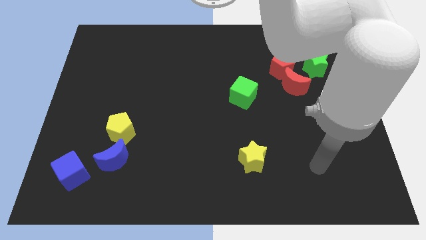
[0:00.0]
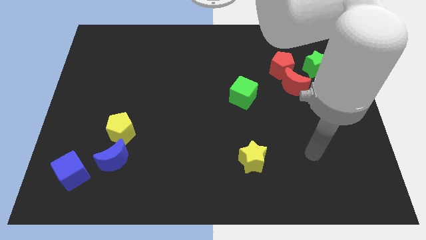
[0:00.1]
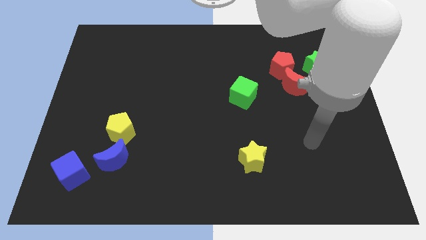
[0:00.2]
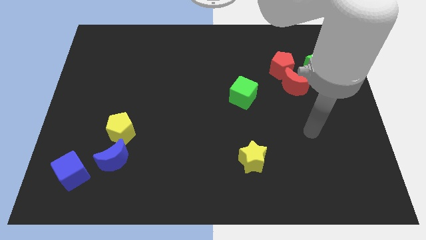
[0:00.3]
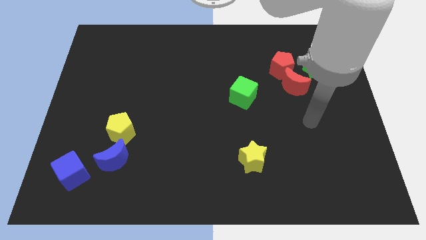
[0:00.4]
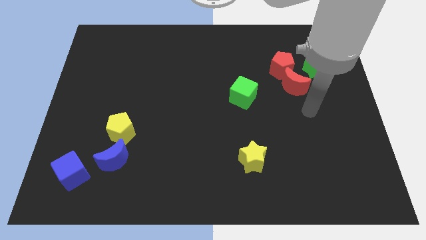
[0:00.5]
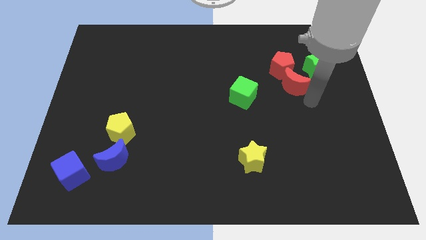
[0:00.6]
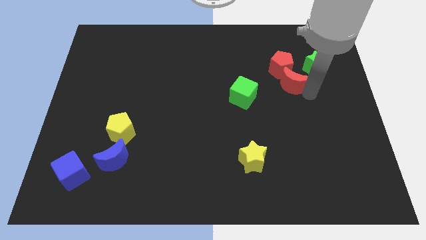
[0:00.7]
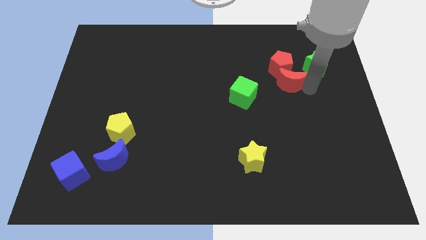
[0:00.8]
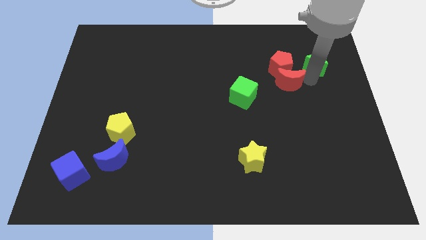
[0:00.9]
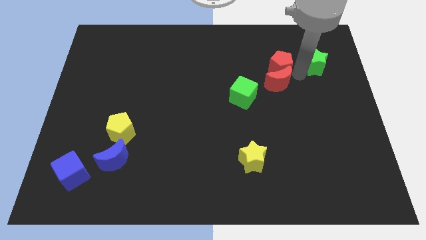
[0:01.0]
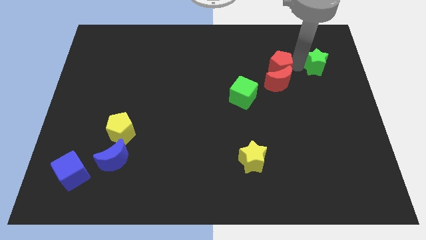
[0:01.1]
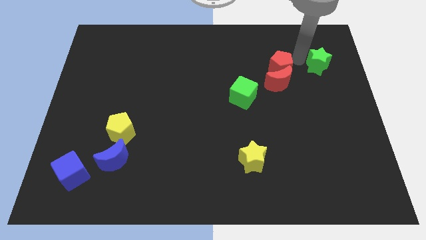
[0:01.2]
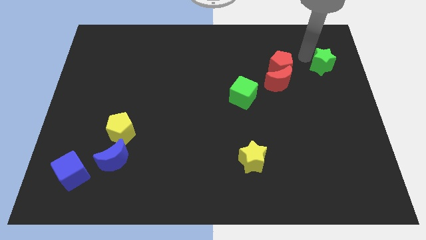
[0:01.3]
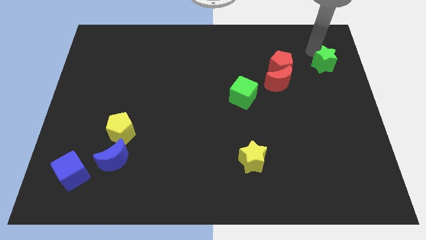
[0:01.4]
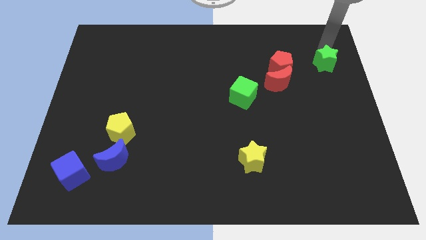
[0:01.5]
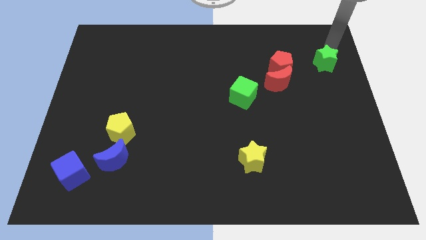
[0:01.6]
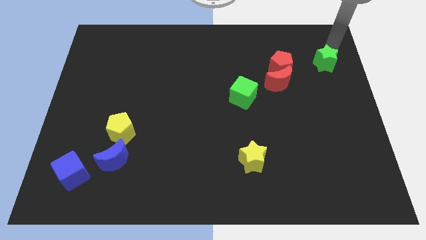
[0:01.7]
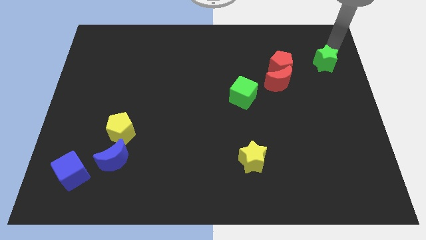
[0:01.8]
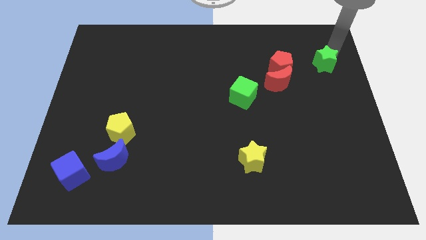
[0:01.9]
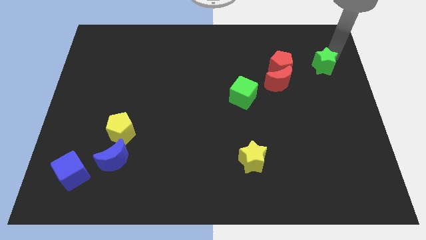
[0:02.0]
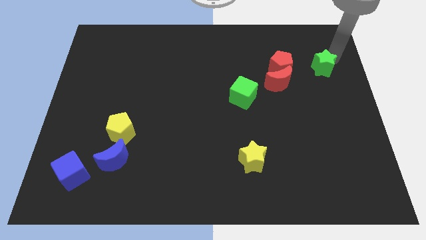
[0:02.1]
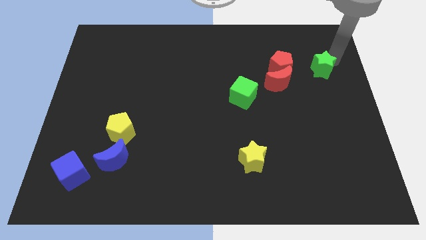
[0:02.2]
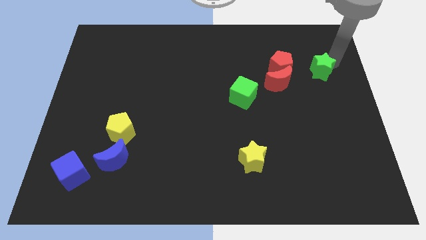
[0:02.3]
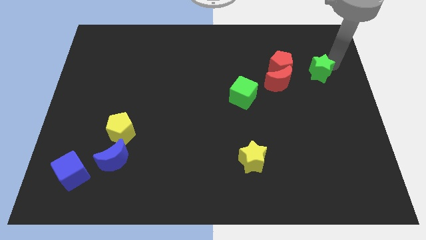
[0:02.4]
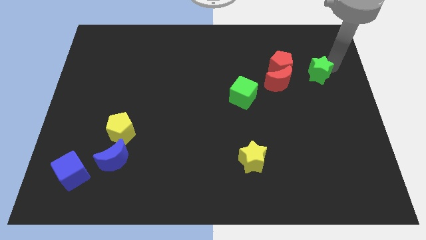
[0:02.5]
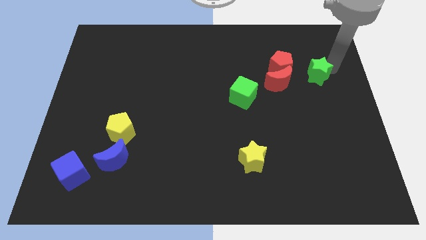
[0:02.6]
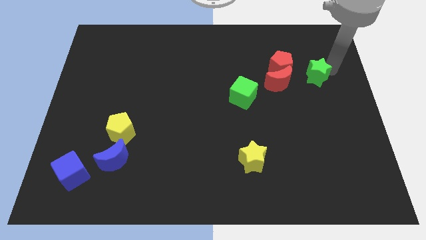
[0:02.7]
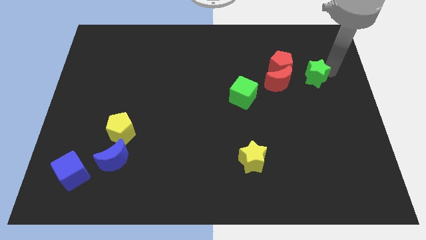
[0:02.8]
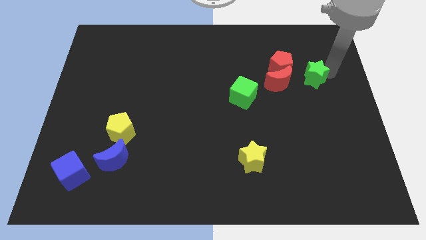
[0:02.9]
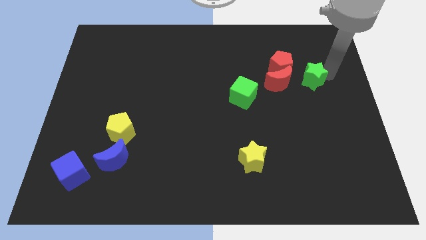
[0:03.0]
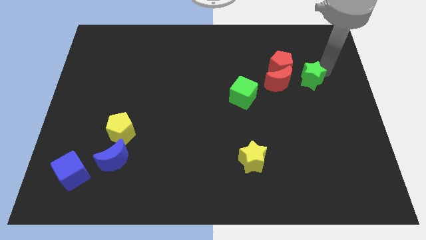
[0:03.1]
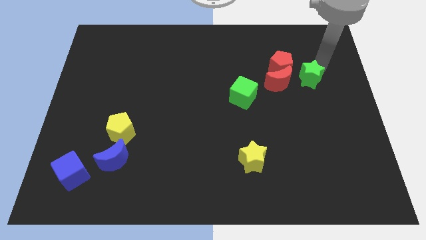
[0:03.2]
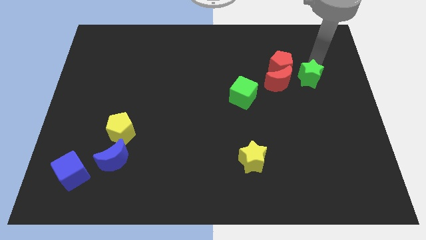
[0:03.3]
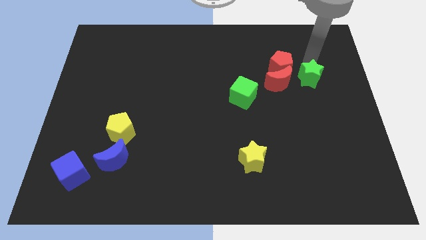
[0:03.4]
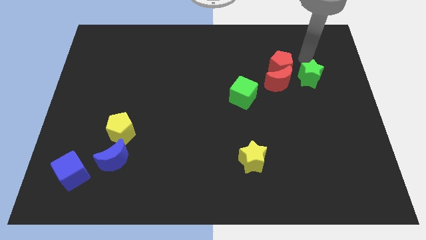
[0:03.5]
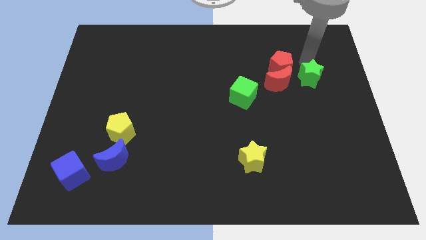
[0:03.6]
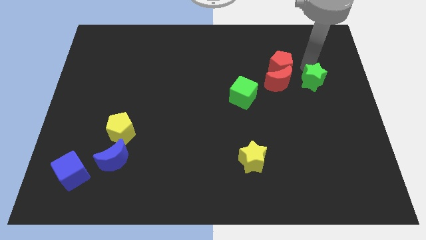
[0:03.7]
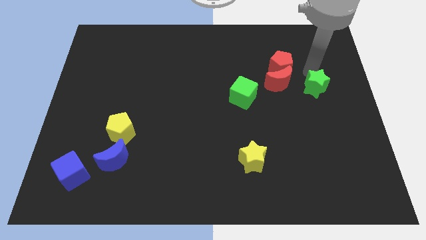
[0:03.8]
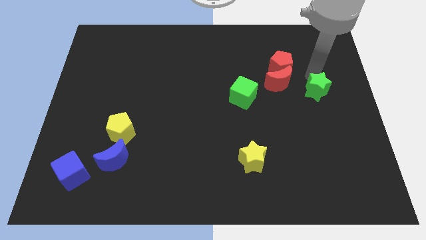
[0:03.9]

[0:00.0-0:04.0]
push the green star a little down

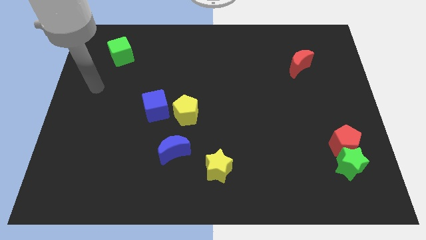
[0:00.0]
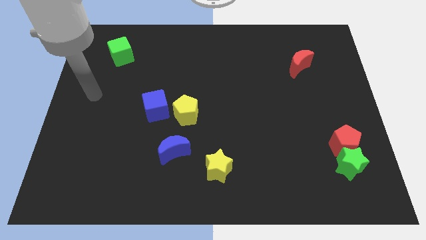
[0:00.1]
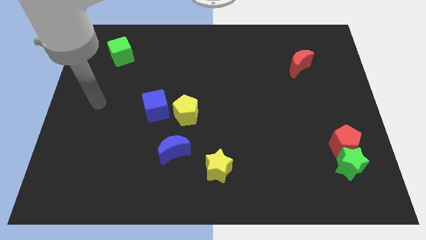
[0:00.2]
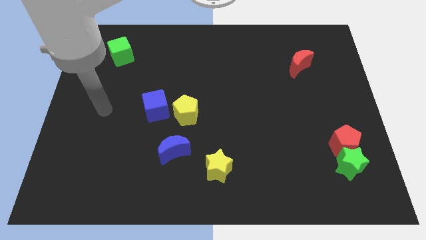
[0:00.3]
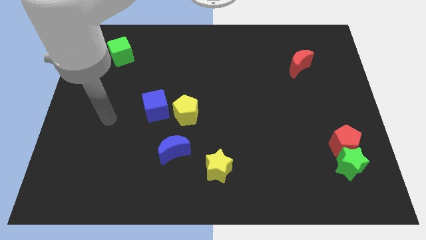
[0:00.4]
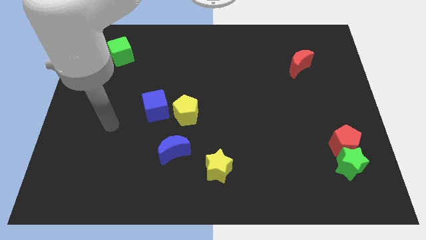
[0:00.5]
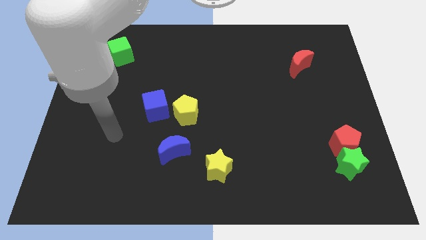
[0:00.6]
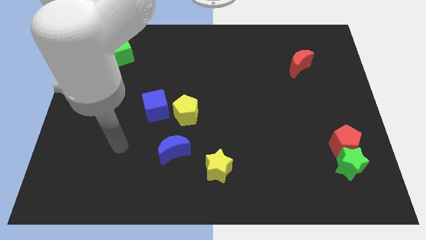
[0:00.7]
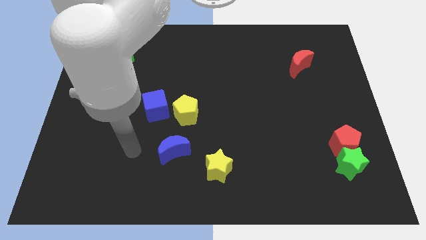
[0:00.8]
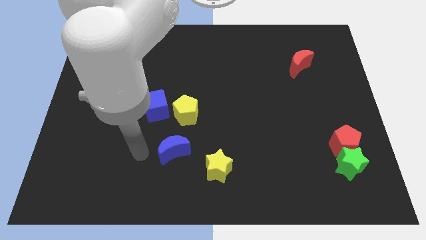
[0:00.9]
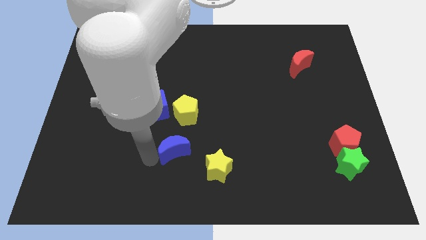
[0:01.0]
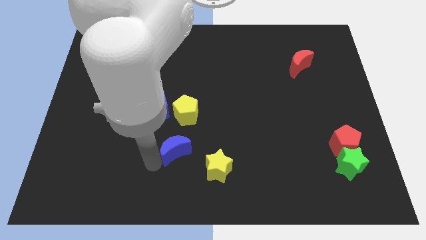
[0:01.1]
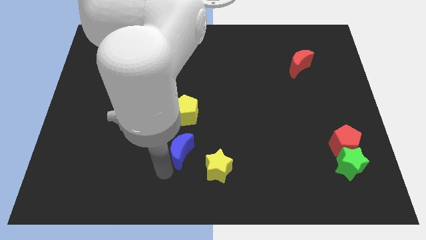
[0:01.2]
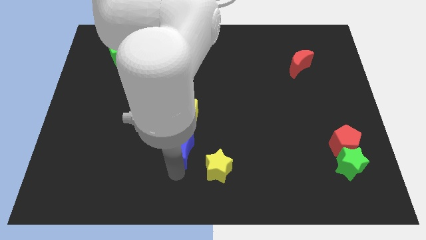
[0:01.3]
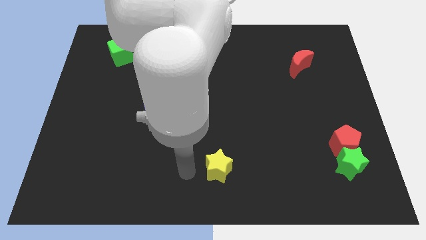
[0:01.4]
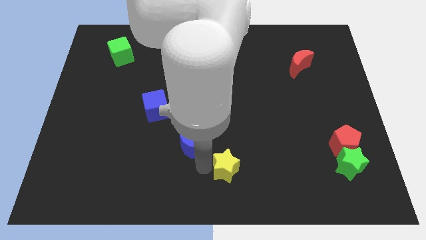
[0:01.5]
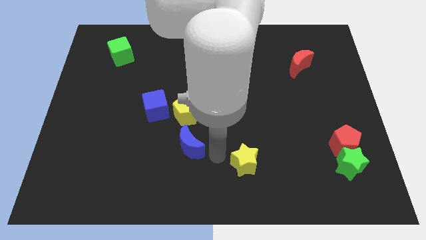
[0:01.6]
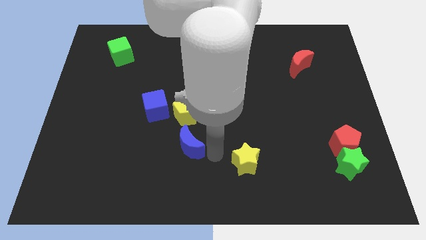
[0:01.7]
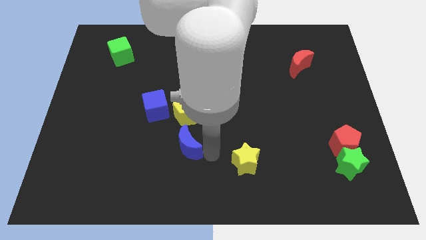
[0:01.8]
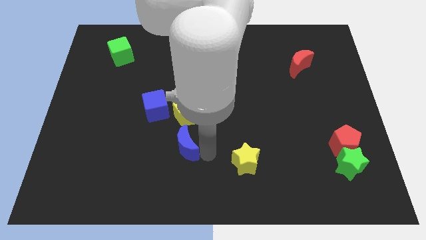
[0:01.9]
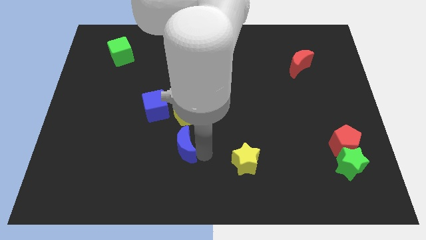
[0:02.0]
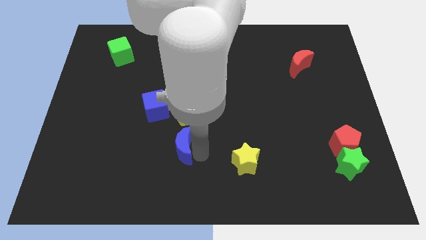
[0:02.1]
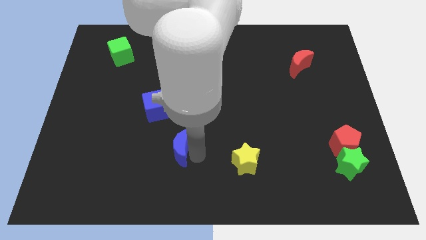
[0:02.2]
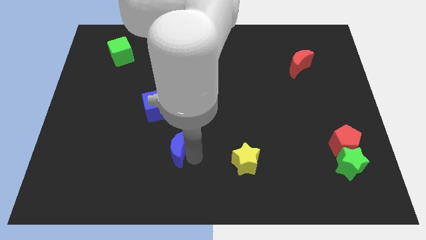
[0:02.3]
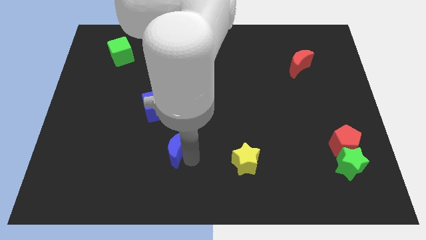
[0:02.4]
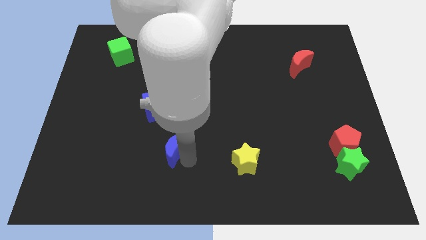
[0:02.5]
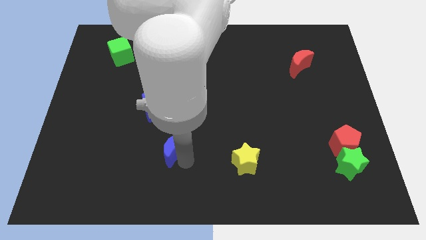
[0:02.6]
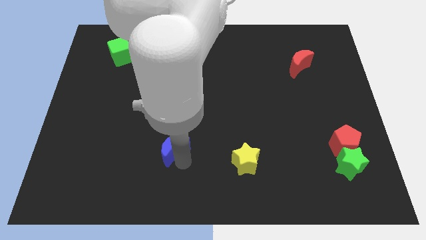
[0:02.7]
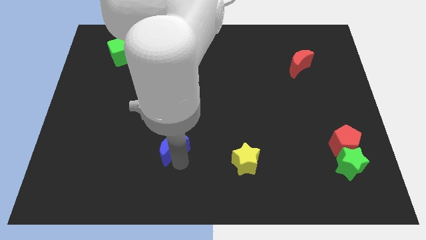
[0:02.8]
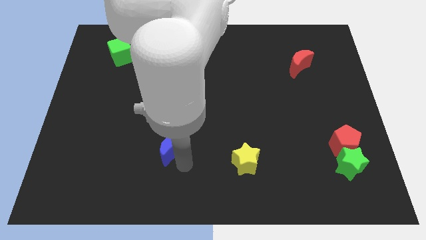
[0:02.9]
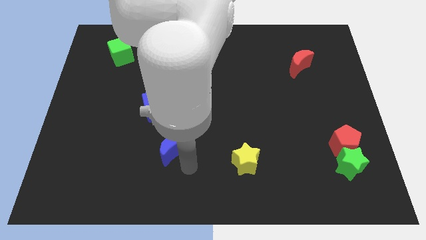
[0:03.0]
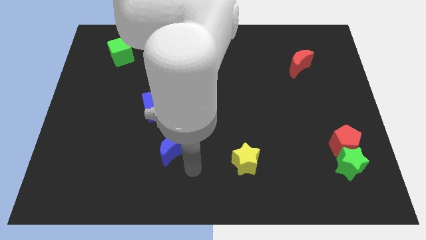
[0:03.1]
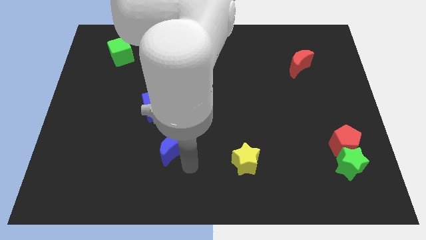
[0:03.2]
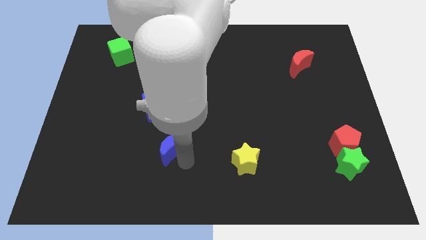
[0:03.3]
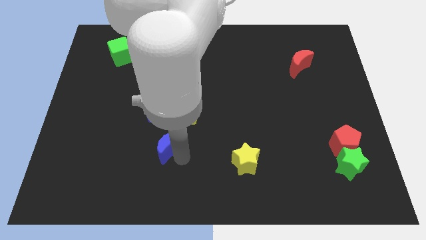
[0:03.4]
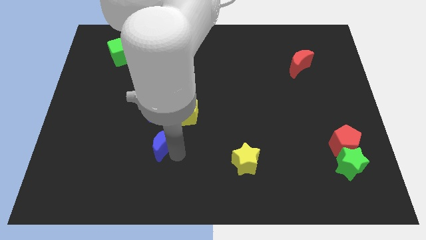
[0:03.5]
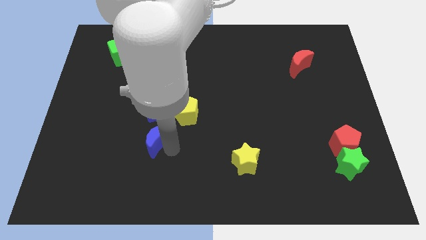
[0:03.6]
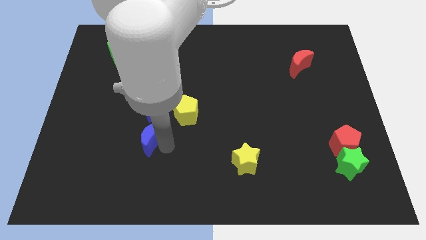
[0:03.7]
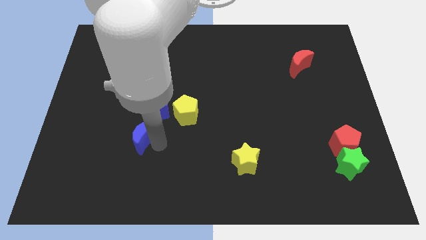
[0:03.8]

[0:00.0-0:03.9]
push the blue moon upwards and to the left a little

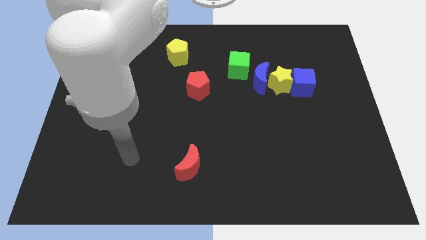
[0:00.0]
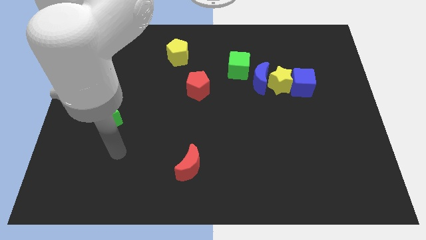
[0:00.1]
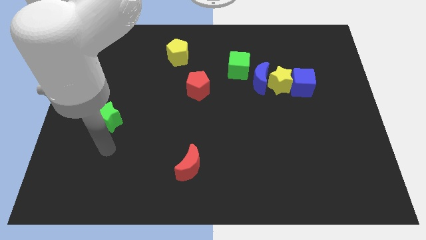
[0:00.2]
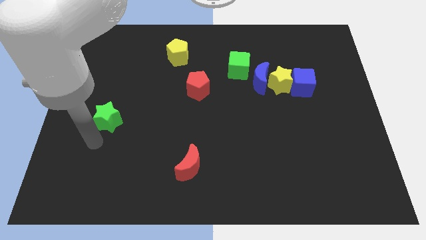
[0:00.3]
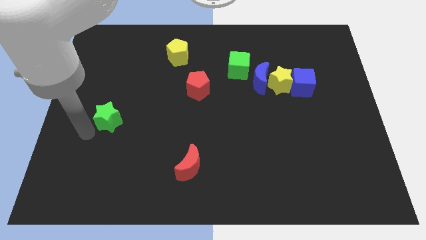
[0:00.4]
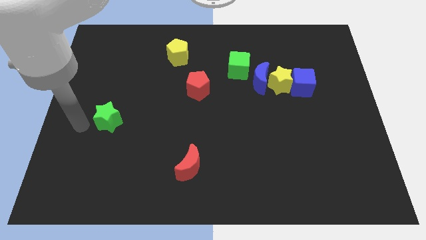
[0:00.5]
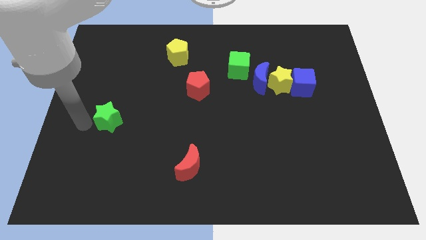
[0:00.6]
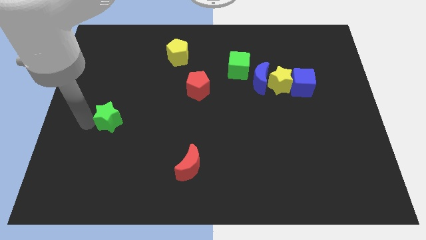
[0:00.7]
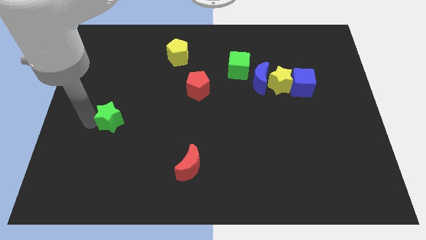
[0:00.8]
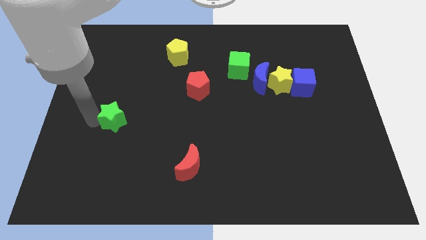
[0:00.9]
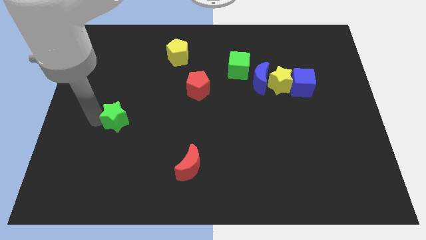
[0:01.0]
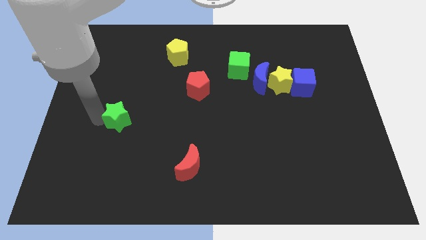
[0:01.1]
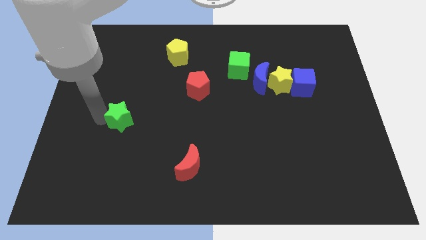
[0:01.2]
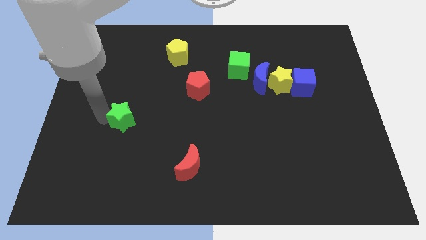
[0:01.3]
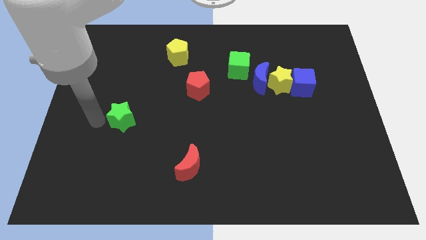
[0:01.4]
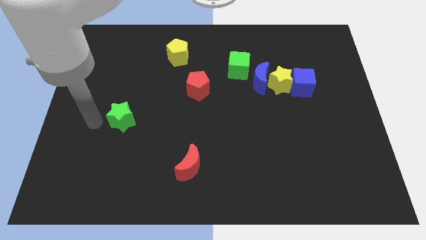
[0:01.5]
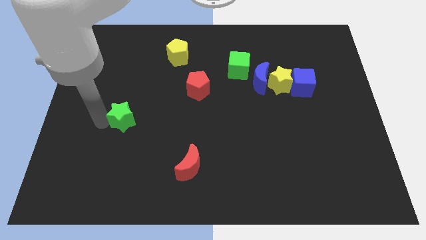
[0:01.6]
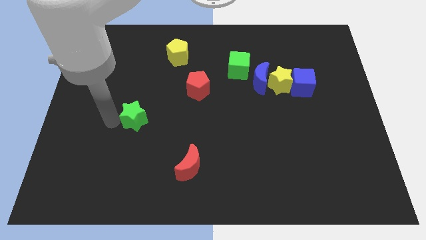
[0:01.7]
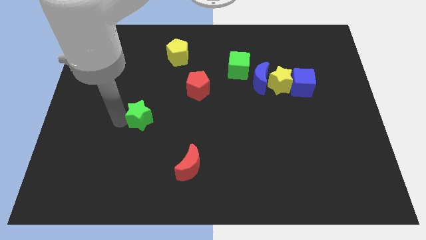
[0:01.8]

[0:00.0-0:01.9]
slightly move the green star to the right
